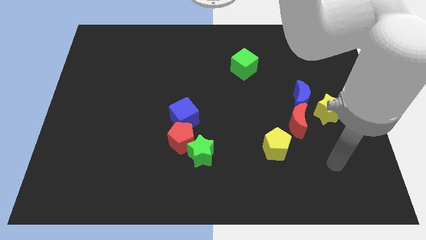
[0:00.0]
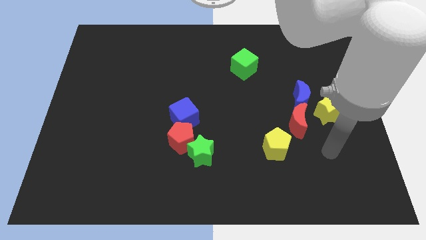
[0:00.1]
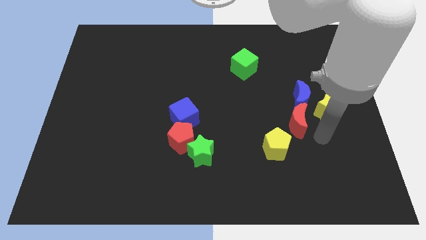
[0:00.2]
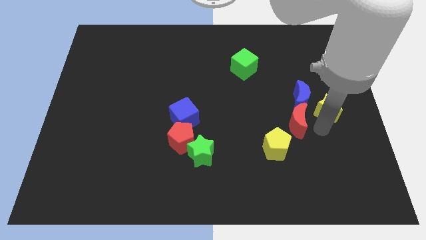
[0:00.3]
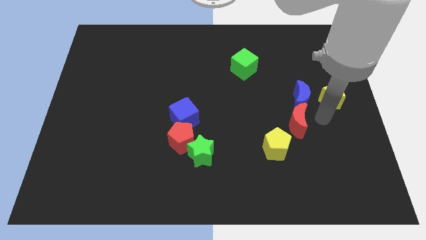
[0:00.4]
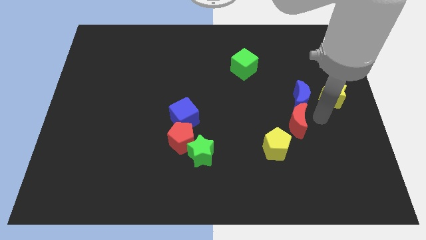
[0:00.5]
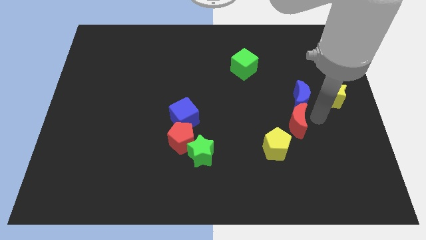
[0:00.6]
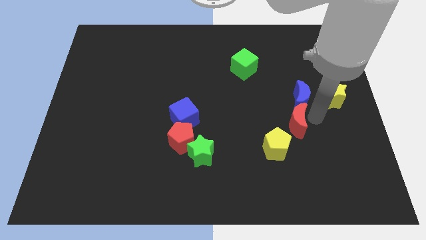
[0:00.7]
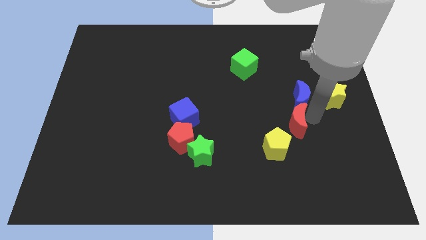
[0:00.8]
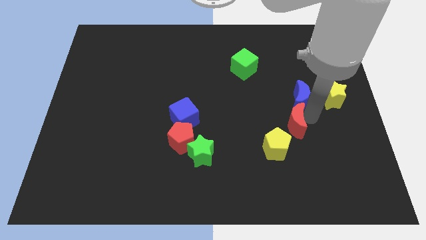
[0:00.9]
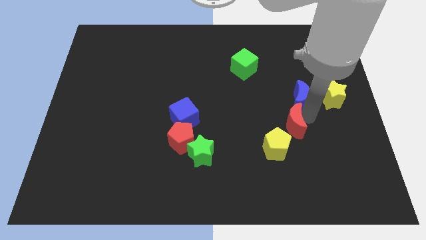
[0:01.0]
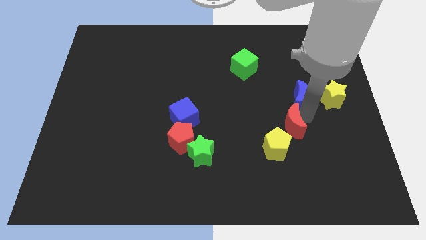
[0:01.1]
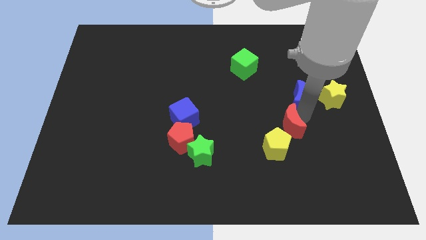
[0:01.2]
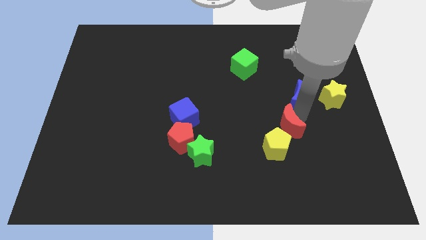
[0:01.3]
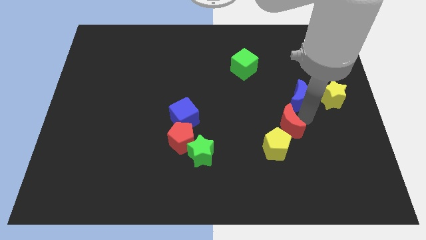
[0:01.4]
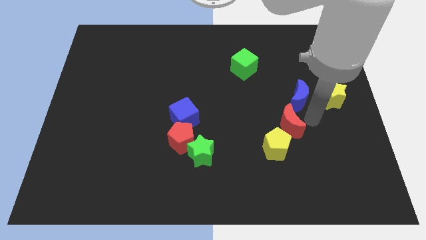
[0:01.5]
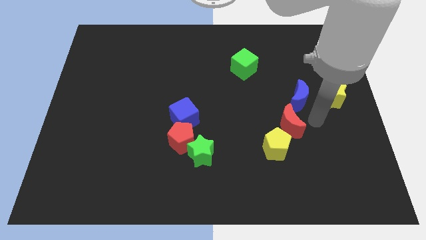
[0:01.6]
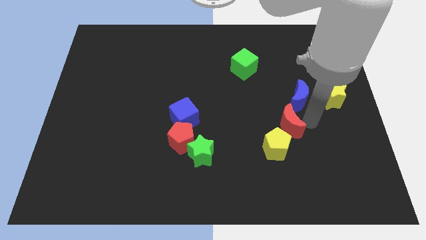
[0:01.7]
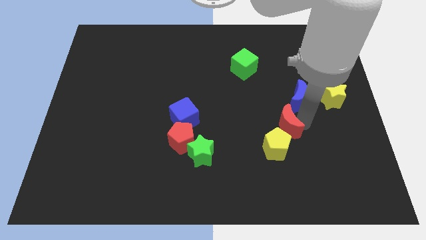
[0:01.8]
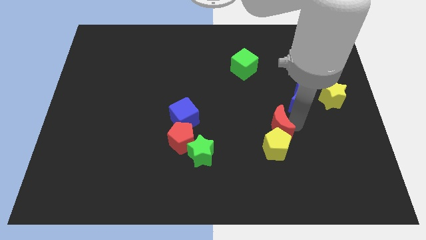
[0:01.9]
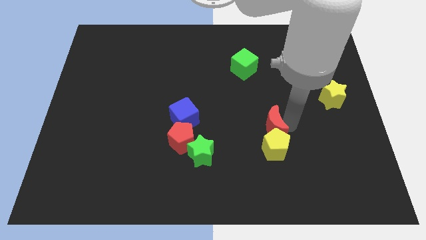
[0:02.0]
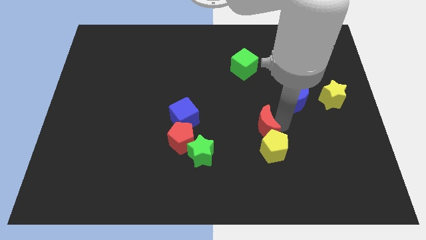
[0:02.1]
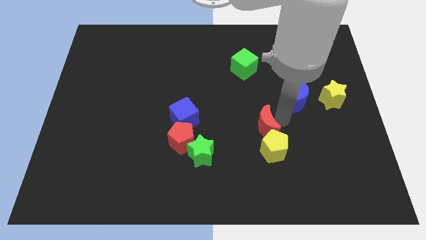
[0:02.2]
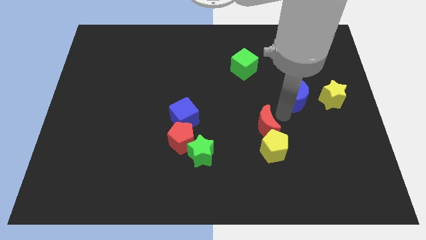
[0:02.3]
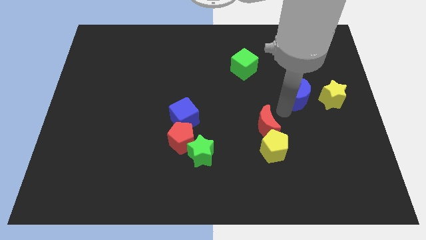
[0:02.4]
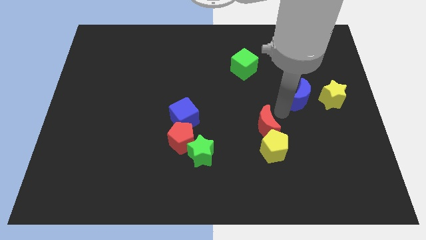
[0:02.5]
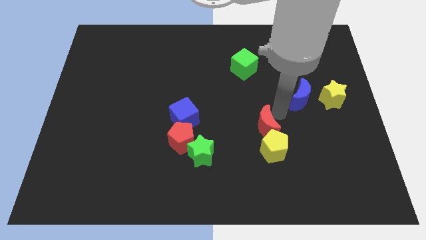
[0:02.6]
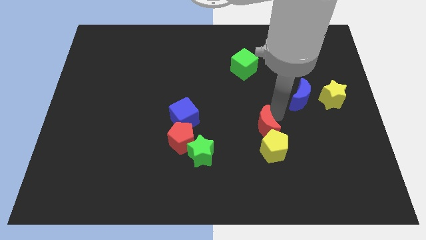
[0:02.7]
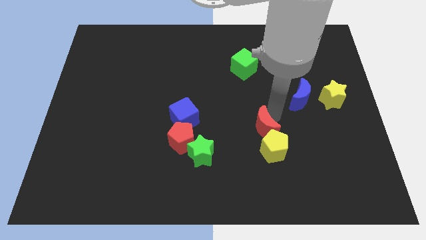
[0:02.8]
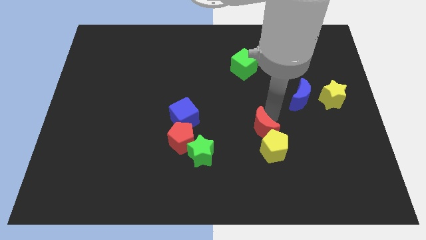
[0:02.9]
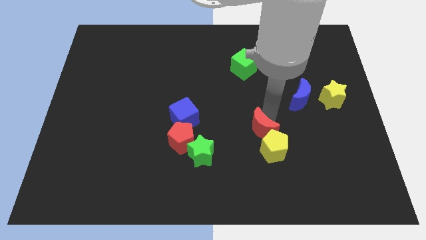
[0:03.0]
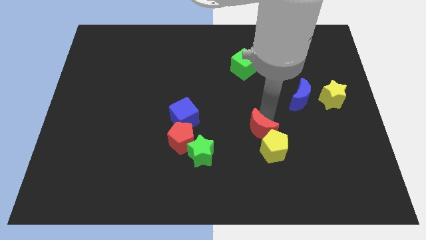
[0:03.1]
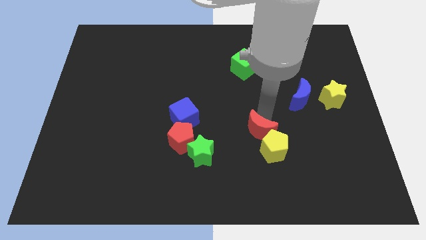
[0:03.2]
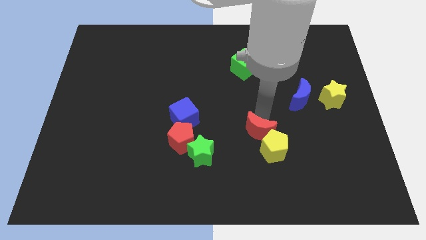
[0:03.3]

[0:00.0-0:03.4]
push the red moon a little diagonally down and left

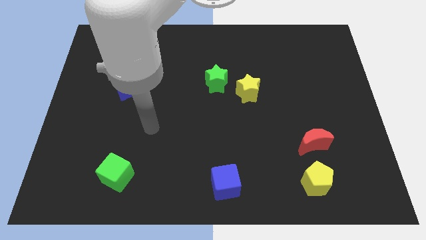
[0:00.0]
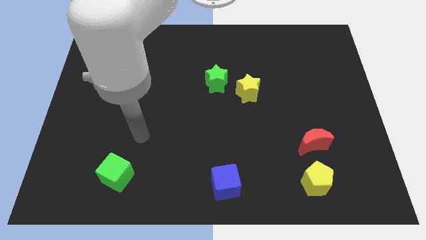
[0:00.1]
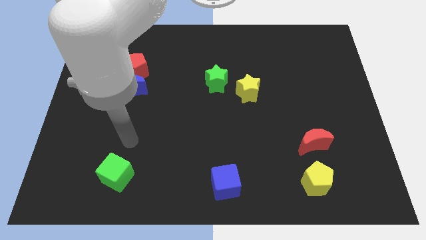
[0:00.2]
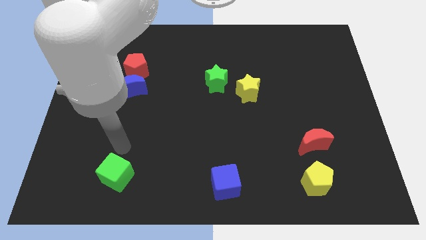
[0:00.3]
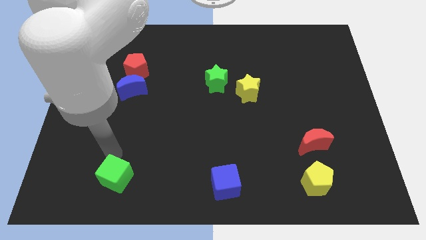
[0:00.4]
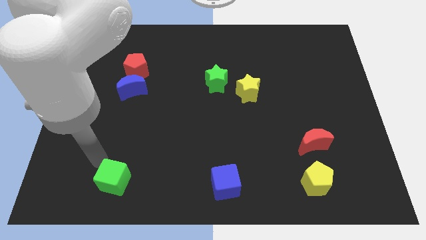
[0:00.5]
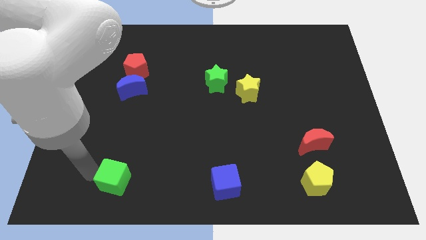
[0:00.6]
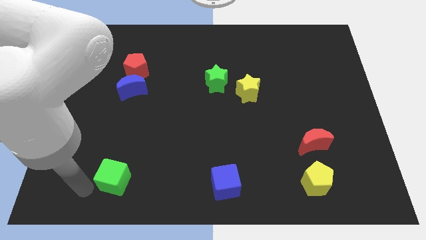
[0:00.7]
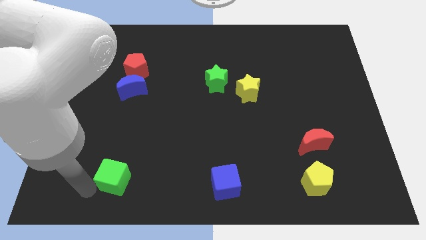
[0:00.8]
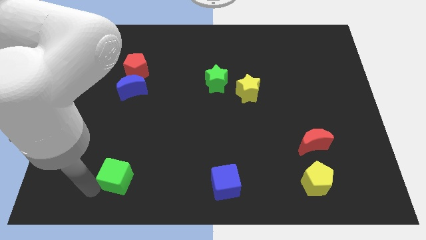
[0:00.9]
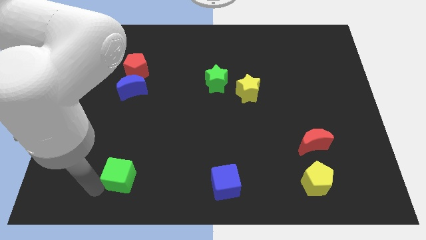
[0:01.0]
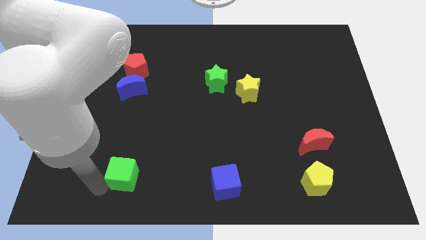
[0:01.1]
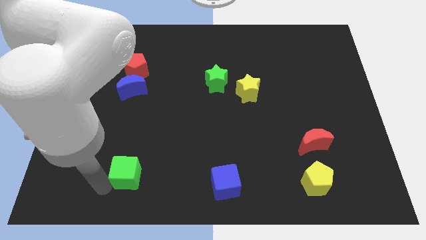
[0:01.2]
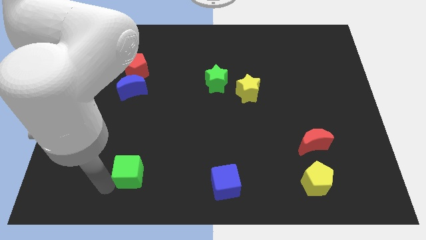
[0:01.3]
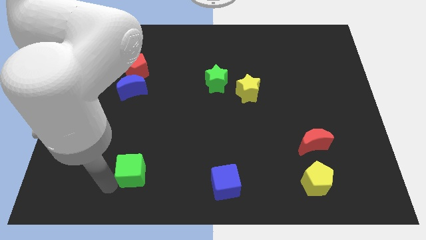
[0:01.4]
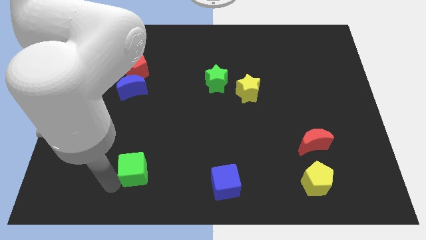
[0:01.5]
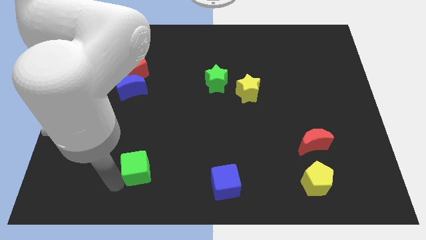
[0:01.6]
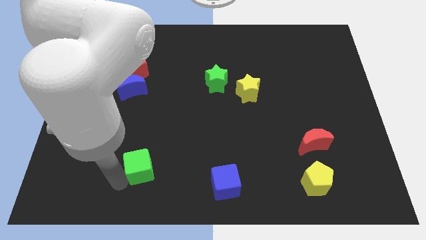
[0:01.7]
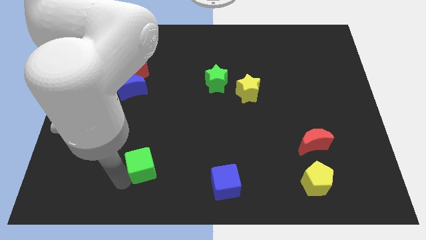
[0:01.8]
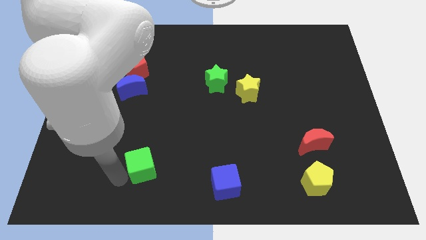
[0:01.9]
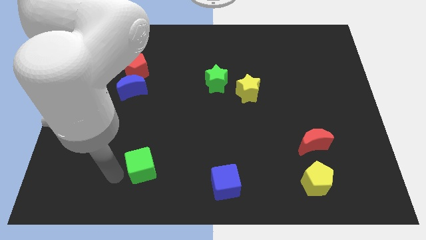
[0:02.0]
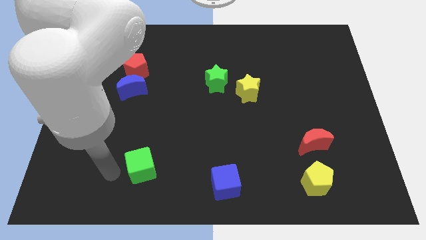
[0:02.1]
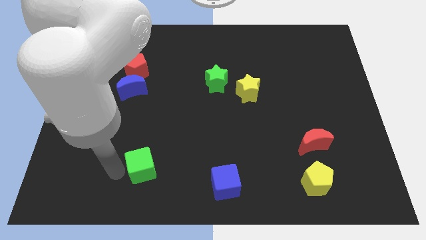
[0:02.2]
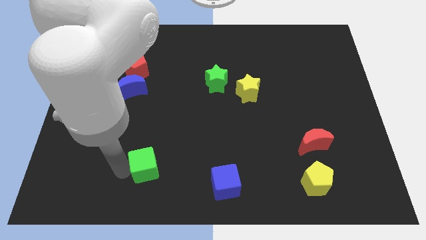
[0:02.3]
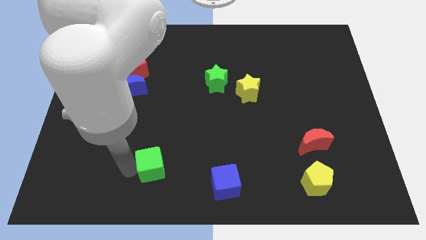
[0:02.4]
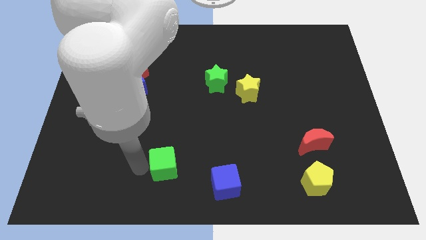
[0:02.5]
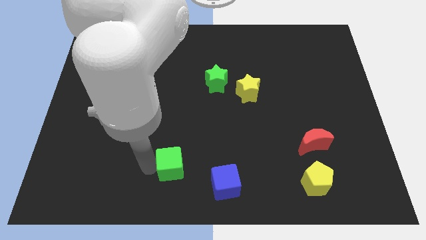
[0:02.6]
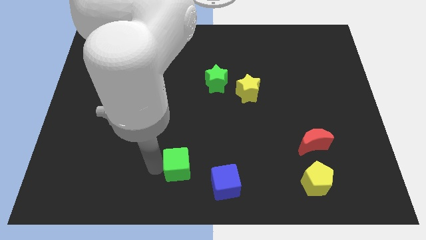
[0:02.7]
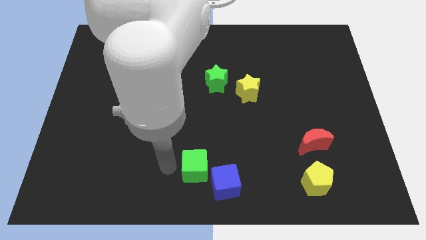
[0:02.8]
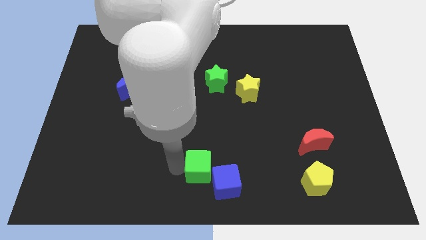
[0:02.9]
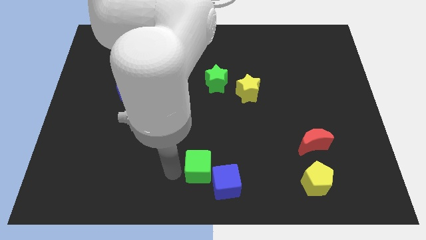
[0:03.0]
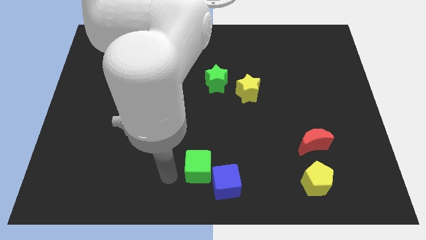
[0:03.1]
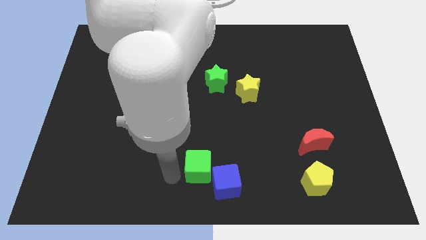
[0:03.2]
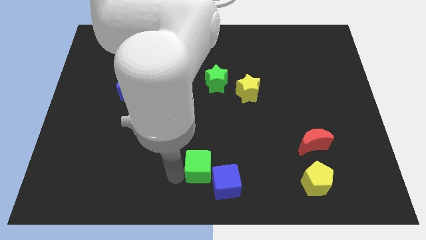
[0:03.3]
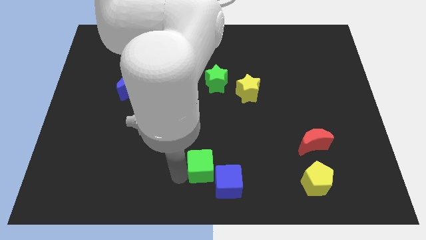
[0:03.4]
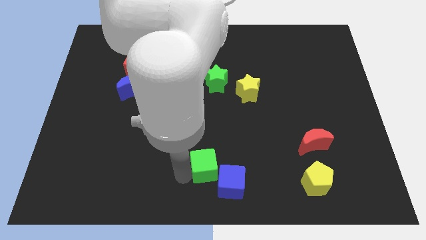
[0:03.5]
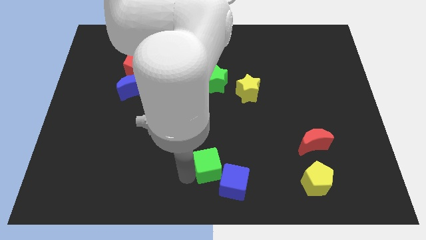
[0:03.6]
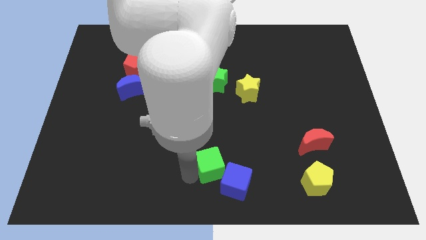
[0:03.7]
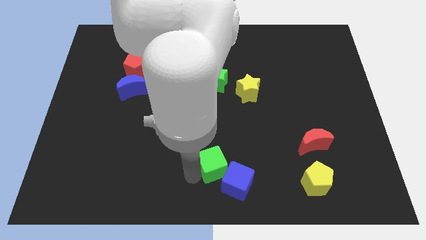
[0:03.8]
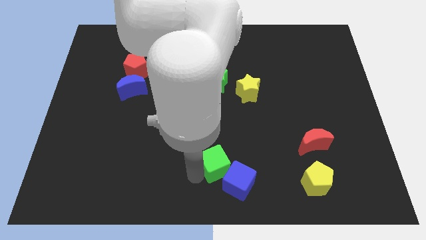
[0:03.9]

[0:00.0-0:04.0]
push the green cube to the right

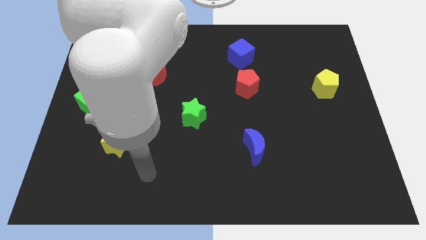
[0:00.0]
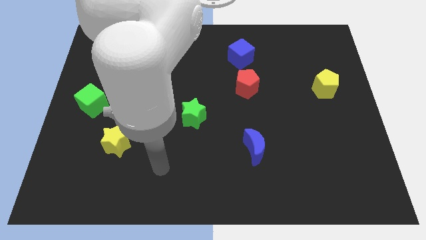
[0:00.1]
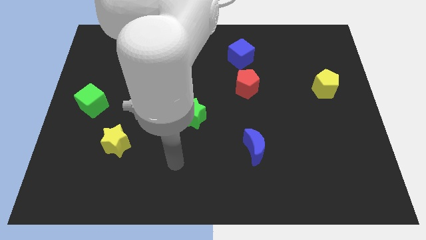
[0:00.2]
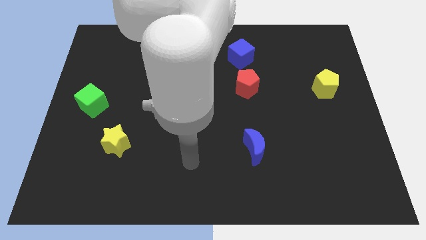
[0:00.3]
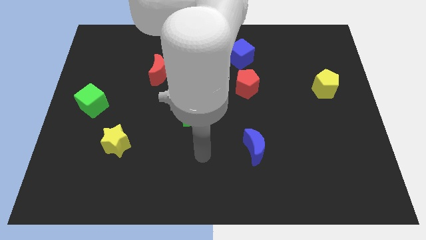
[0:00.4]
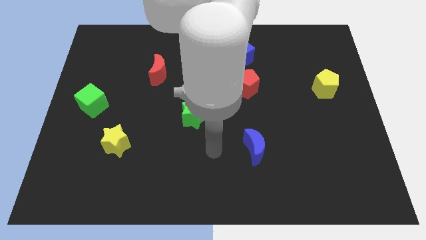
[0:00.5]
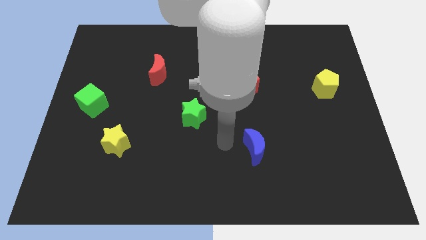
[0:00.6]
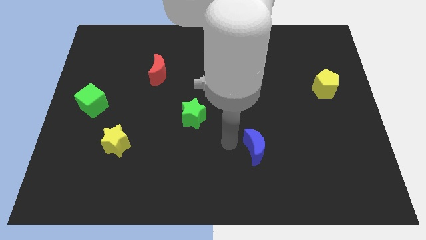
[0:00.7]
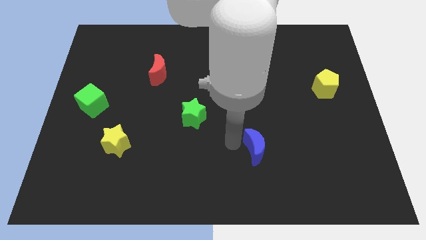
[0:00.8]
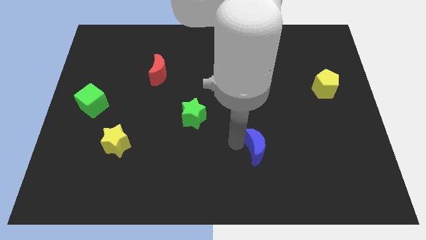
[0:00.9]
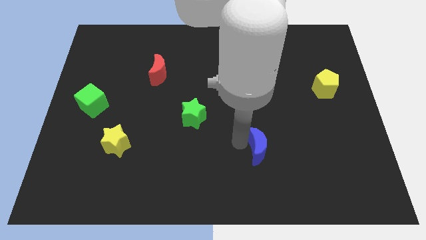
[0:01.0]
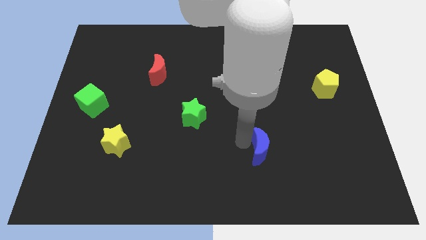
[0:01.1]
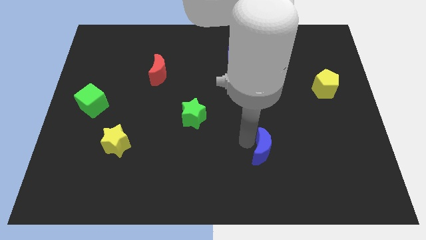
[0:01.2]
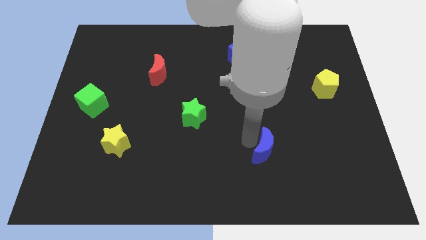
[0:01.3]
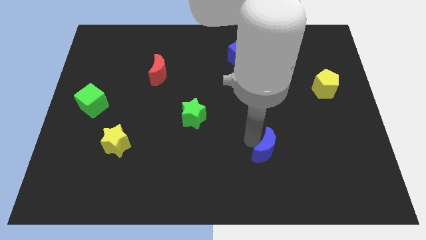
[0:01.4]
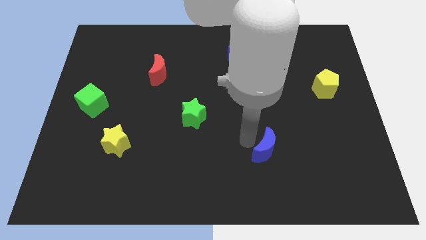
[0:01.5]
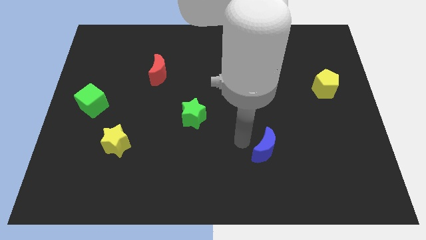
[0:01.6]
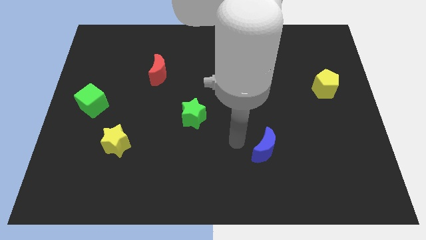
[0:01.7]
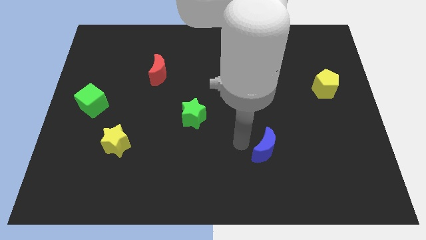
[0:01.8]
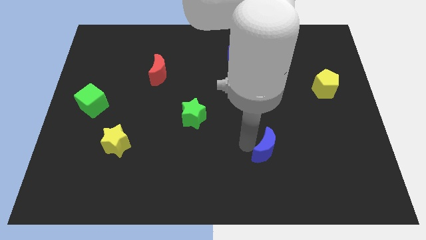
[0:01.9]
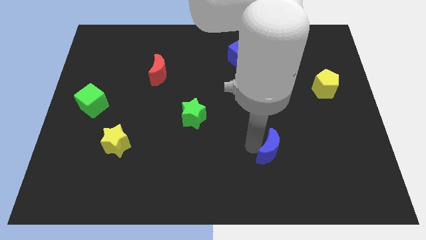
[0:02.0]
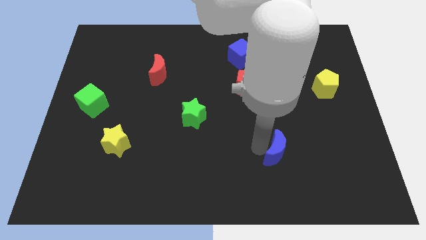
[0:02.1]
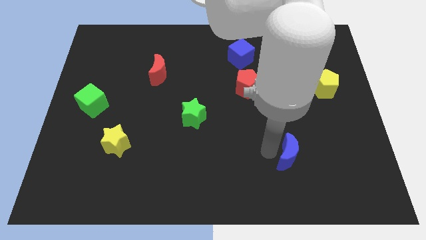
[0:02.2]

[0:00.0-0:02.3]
move the blue moon to the right somewhat
